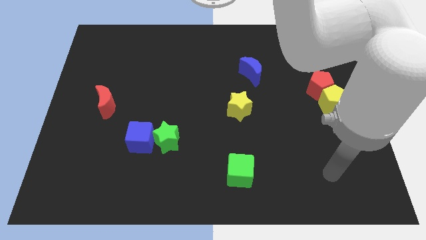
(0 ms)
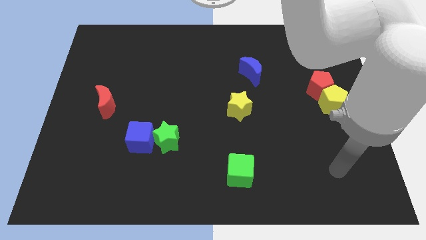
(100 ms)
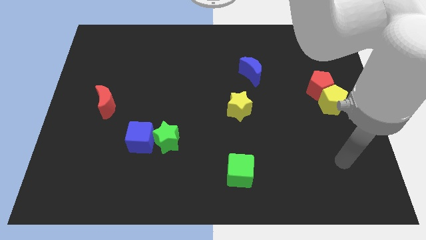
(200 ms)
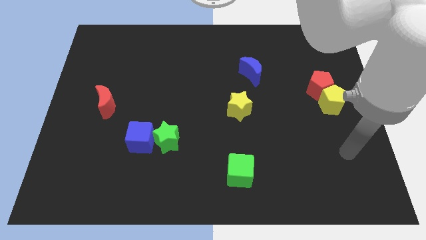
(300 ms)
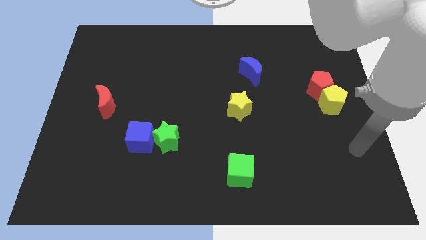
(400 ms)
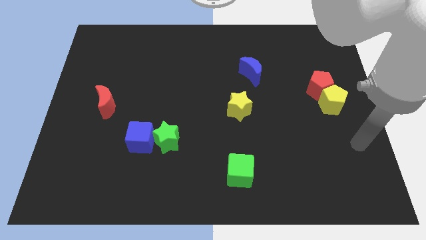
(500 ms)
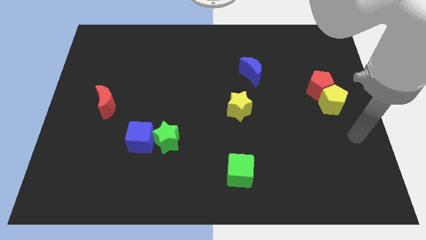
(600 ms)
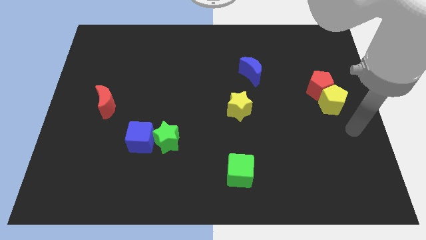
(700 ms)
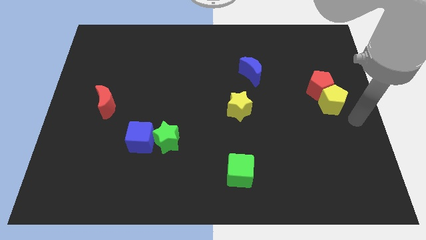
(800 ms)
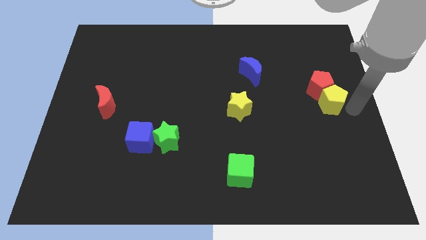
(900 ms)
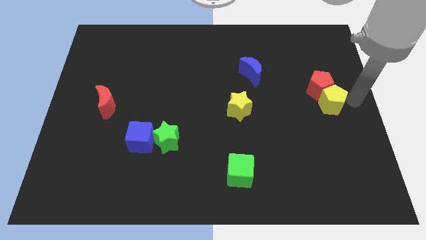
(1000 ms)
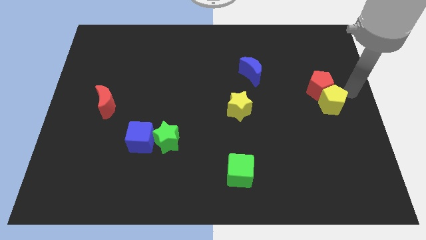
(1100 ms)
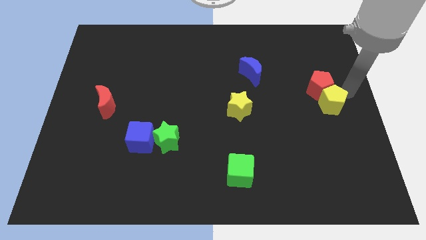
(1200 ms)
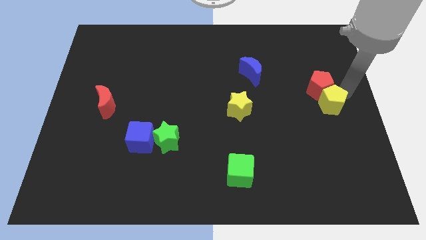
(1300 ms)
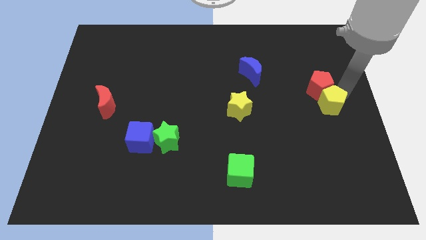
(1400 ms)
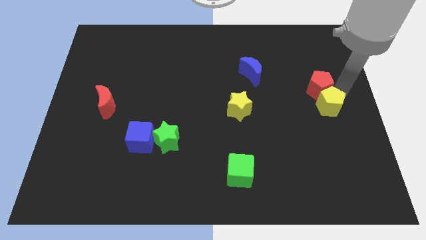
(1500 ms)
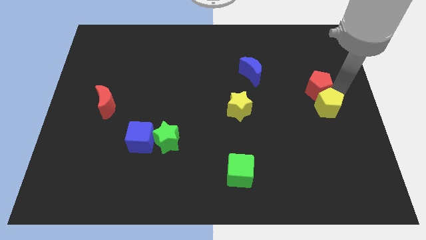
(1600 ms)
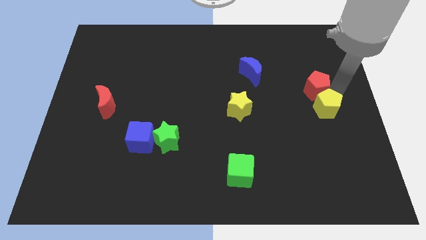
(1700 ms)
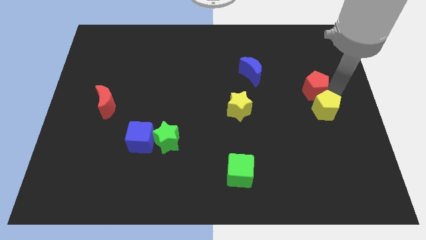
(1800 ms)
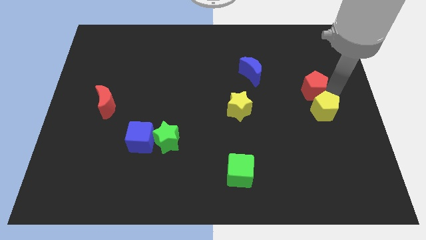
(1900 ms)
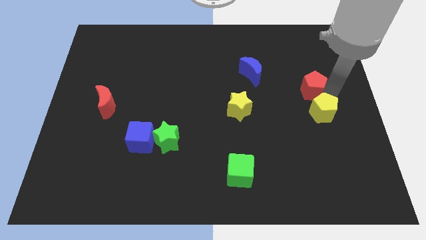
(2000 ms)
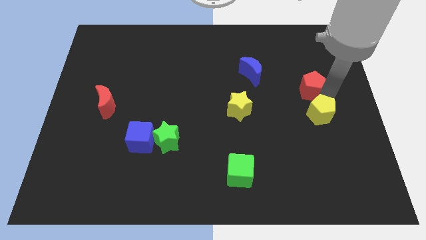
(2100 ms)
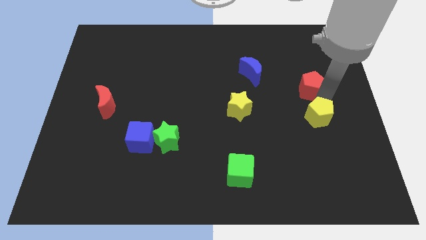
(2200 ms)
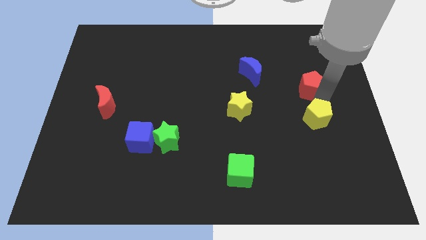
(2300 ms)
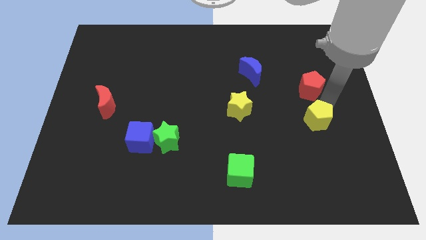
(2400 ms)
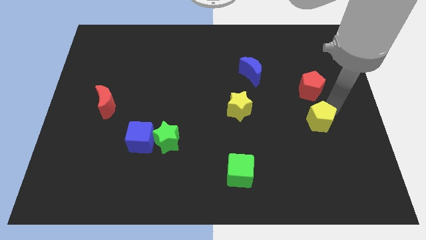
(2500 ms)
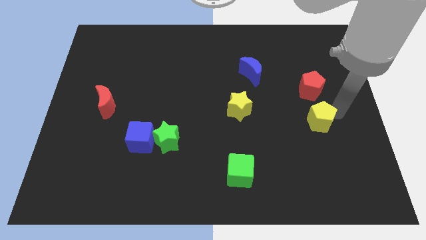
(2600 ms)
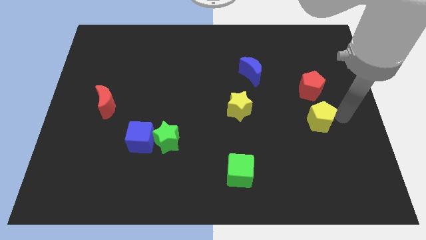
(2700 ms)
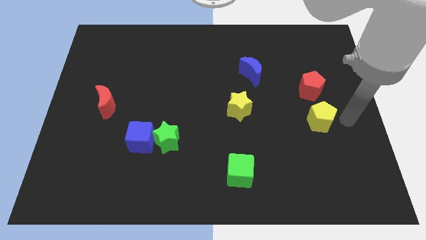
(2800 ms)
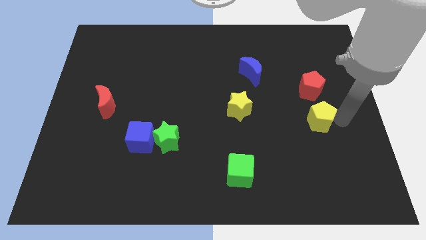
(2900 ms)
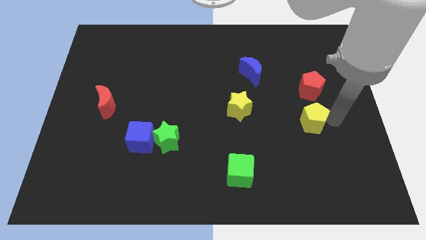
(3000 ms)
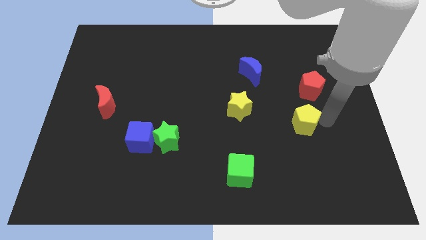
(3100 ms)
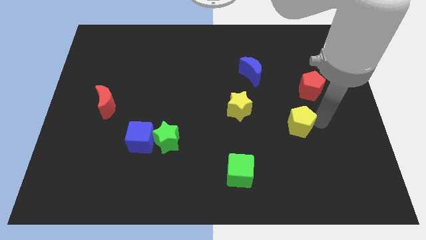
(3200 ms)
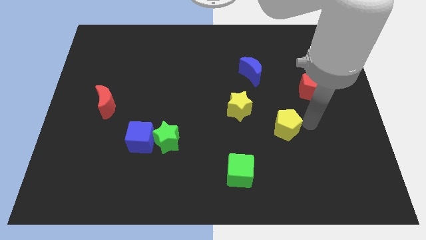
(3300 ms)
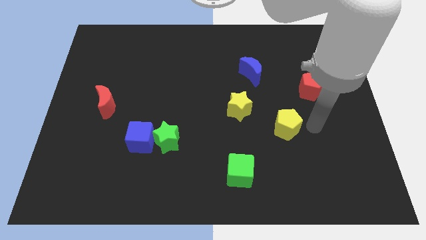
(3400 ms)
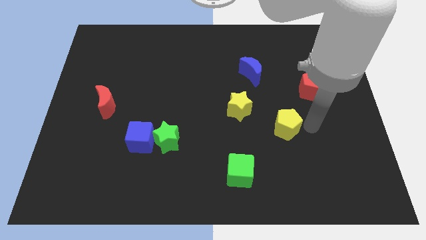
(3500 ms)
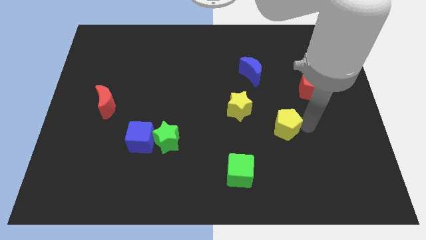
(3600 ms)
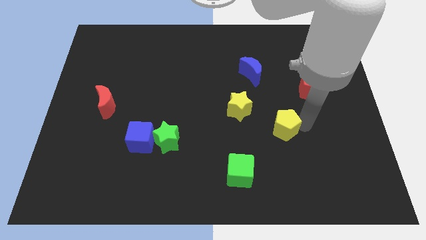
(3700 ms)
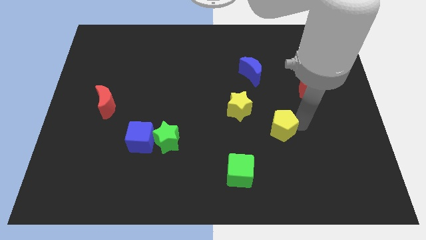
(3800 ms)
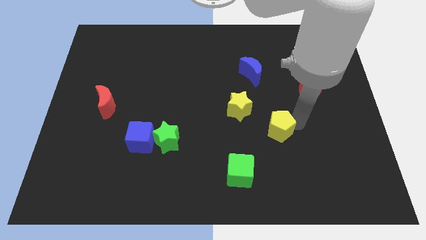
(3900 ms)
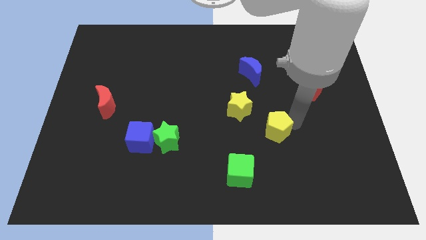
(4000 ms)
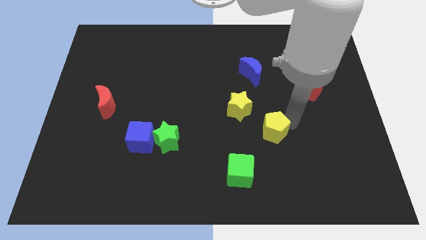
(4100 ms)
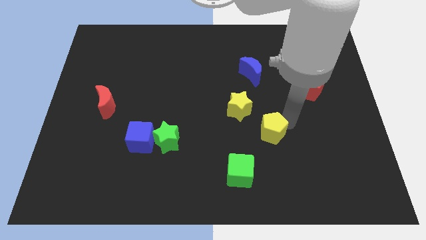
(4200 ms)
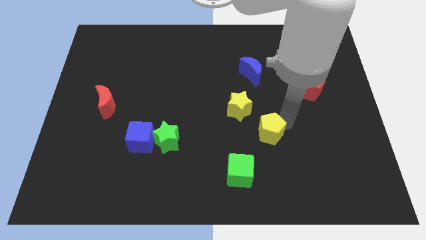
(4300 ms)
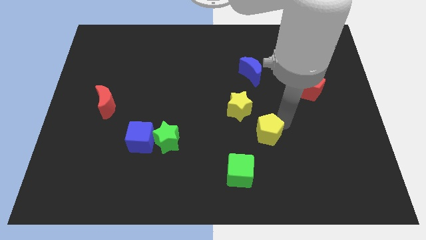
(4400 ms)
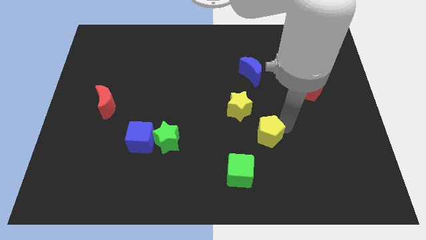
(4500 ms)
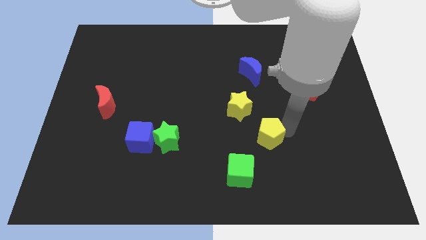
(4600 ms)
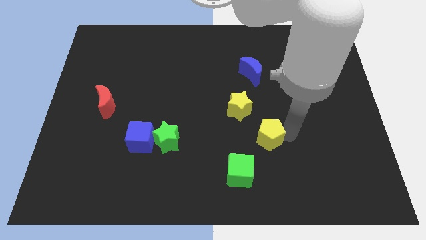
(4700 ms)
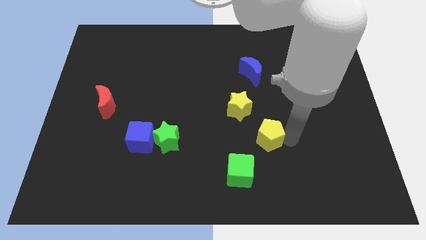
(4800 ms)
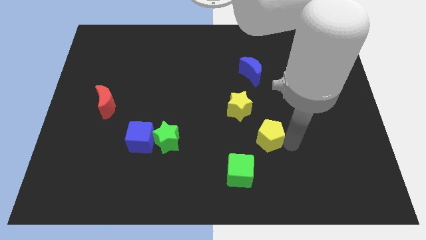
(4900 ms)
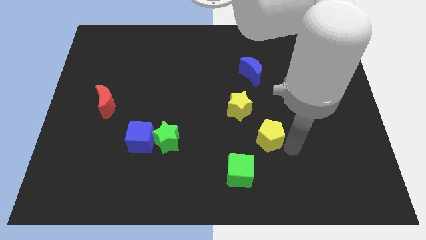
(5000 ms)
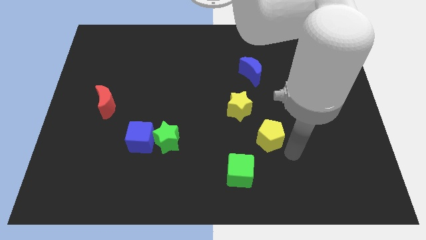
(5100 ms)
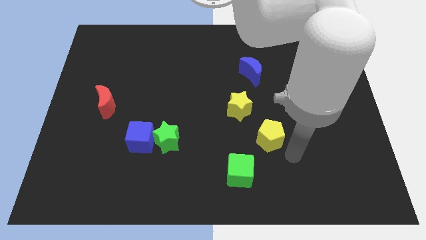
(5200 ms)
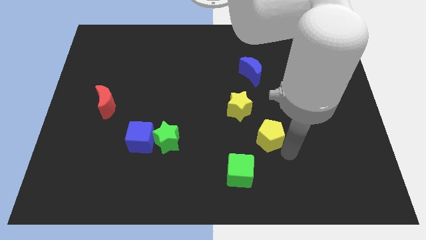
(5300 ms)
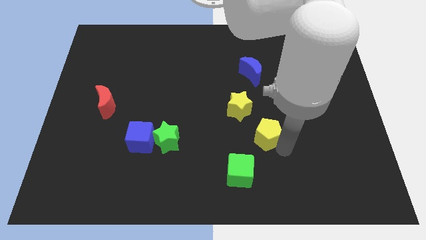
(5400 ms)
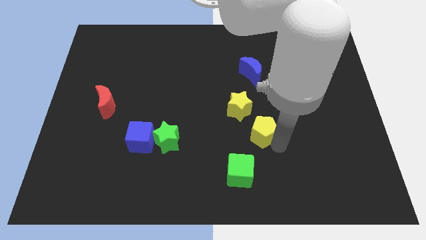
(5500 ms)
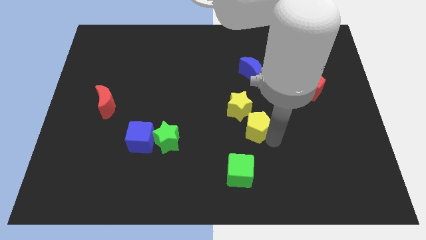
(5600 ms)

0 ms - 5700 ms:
slide the yellow pentagon to the top of the green cube

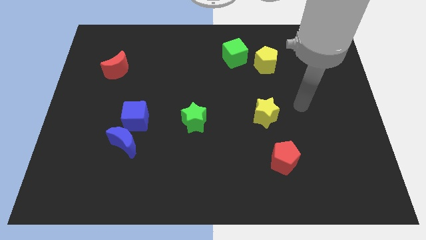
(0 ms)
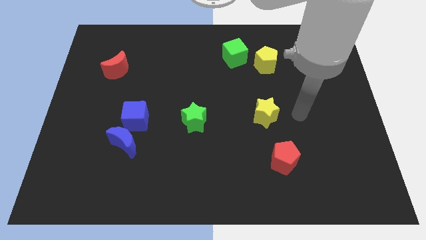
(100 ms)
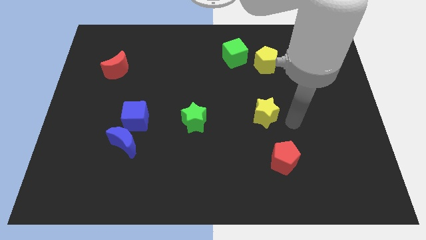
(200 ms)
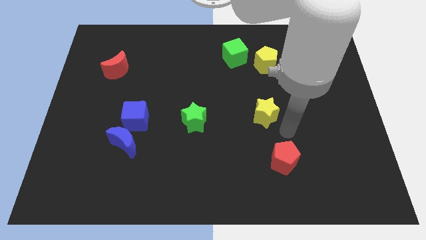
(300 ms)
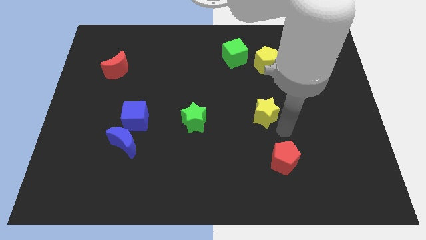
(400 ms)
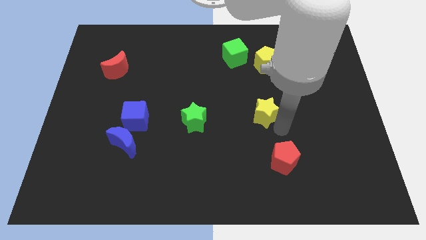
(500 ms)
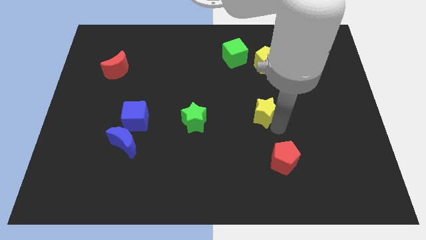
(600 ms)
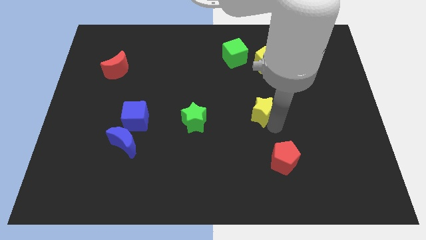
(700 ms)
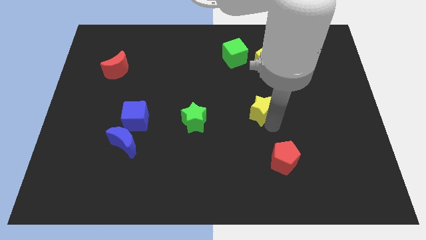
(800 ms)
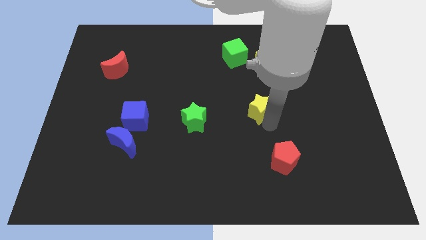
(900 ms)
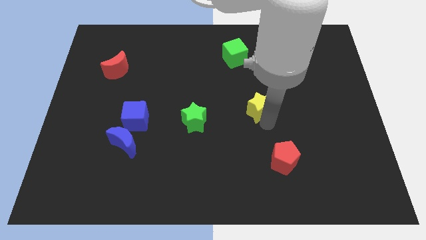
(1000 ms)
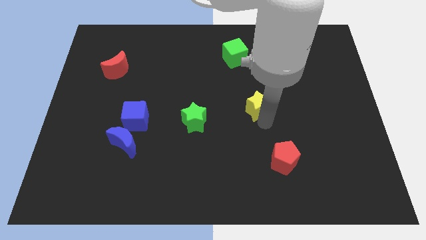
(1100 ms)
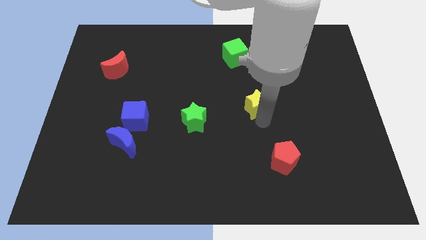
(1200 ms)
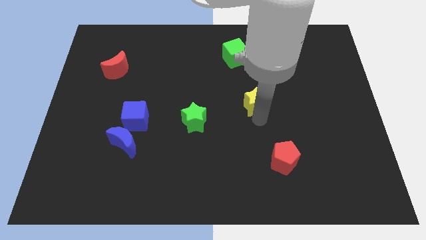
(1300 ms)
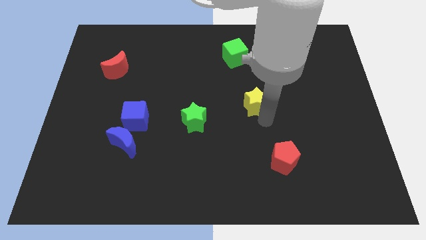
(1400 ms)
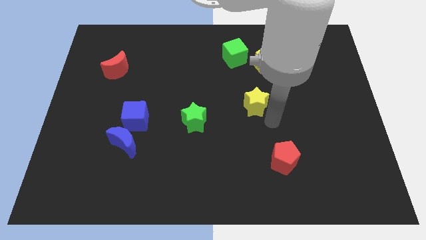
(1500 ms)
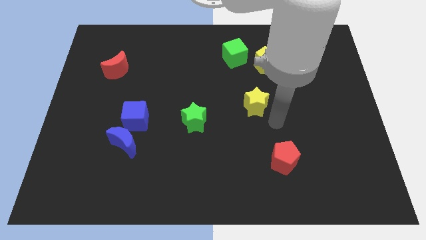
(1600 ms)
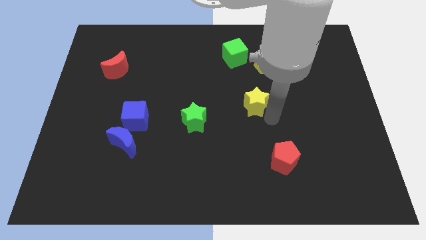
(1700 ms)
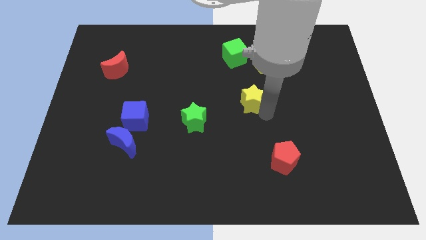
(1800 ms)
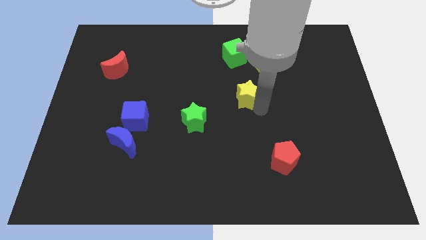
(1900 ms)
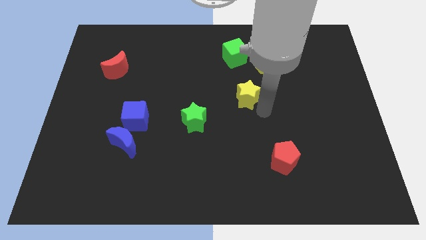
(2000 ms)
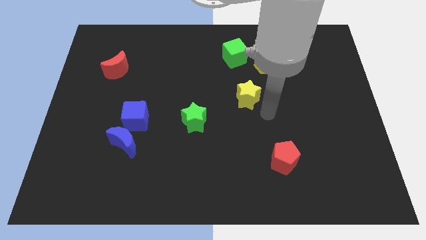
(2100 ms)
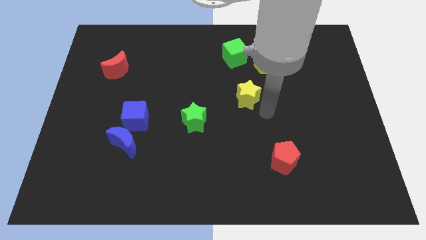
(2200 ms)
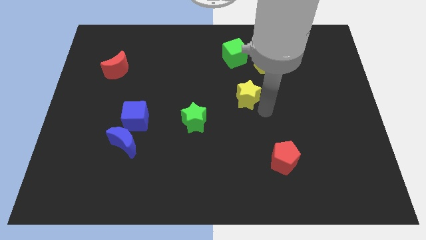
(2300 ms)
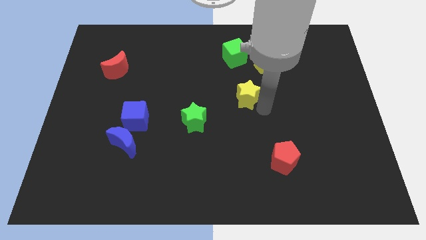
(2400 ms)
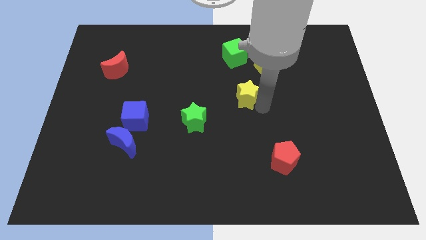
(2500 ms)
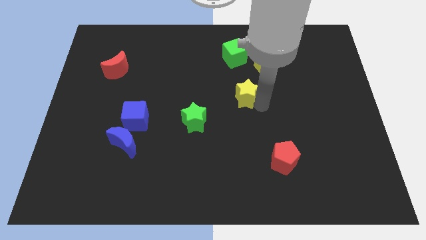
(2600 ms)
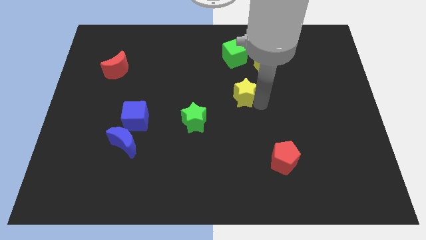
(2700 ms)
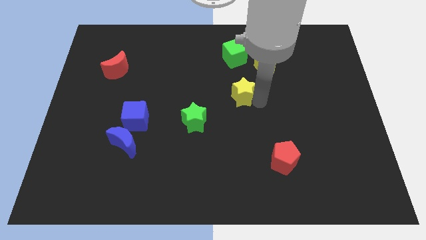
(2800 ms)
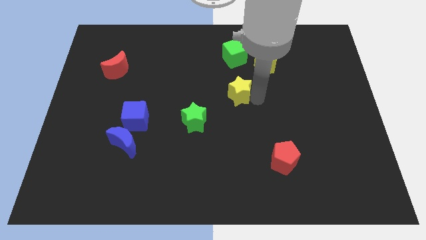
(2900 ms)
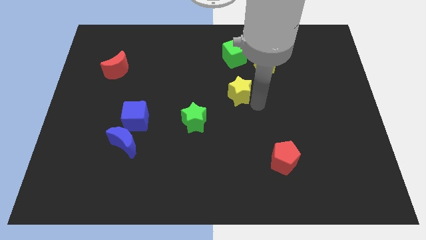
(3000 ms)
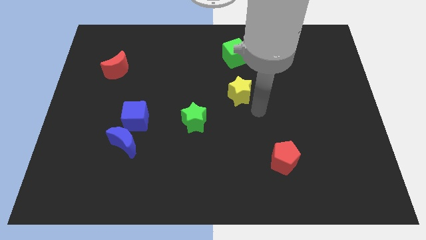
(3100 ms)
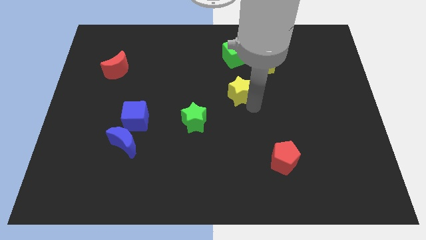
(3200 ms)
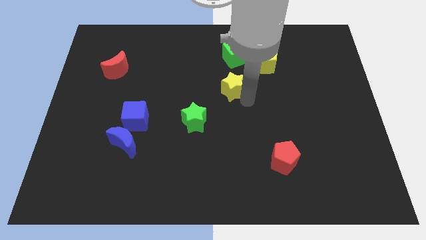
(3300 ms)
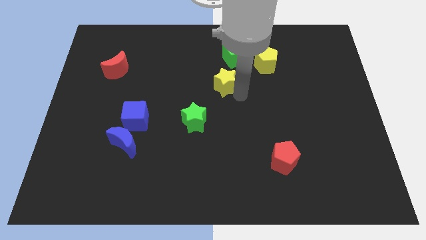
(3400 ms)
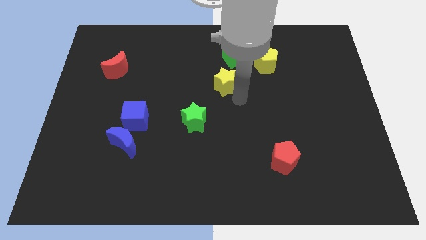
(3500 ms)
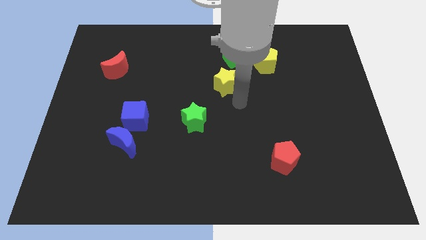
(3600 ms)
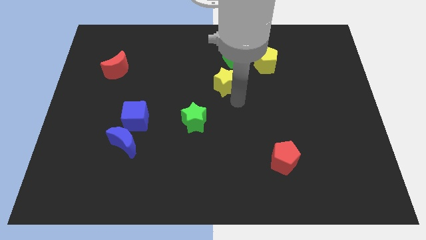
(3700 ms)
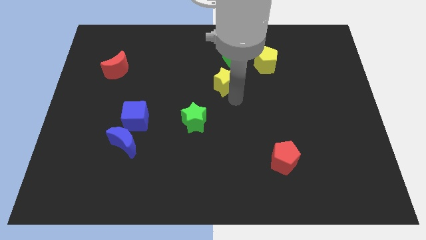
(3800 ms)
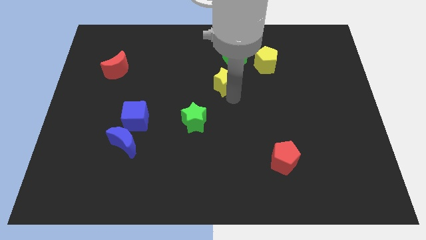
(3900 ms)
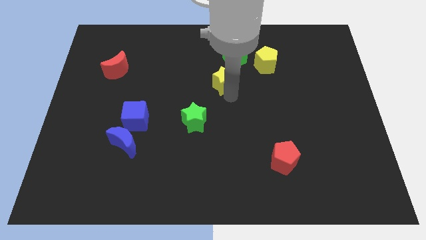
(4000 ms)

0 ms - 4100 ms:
move the yellow star to the bottom left side of the green cube
